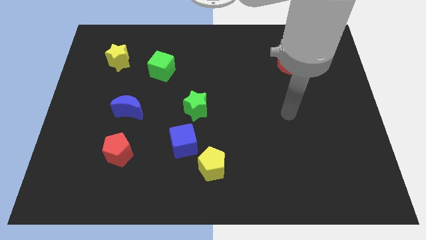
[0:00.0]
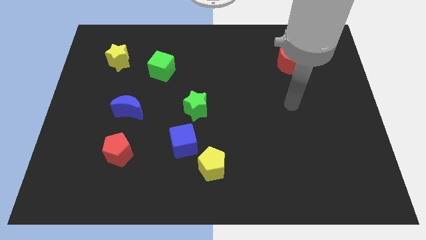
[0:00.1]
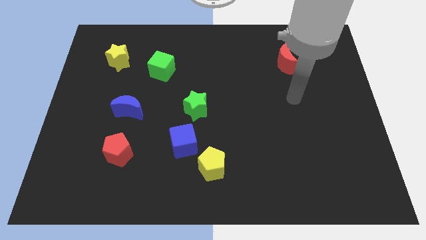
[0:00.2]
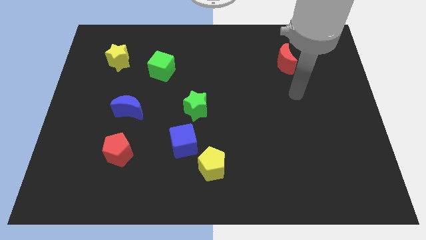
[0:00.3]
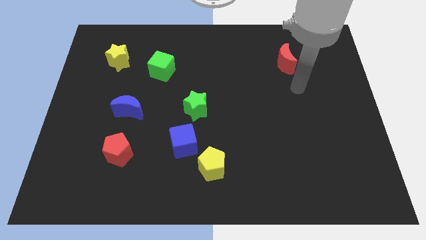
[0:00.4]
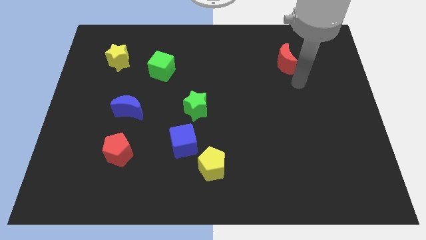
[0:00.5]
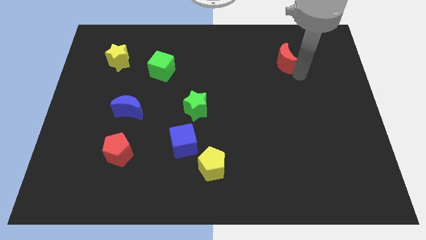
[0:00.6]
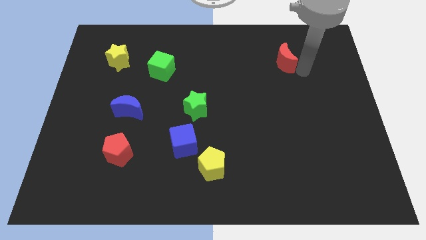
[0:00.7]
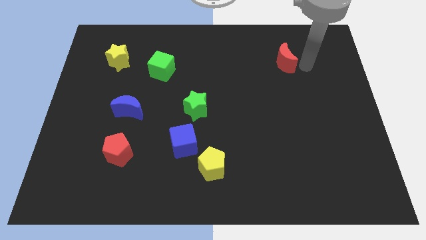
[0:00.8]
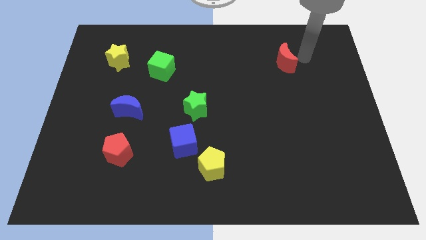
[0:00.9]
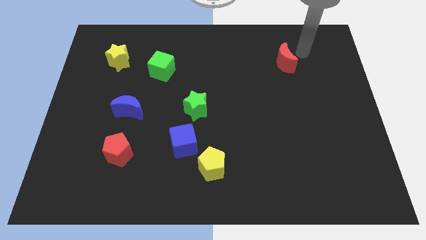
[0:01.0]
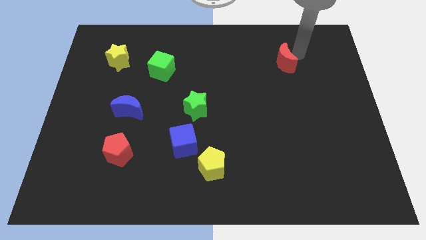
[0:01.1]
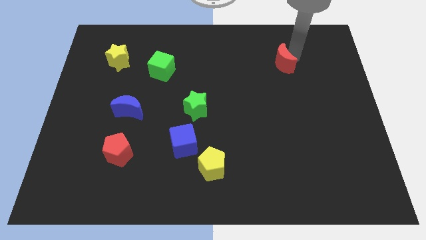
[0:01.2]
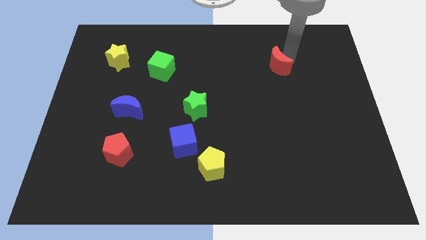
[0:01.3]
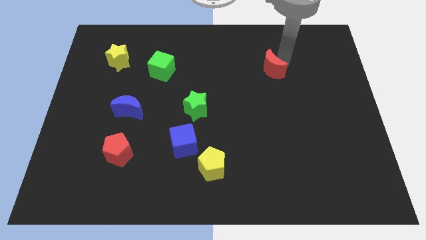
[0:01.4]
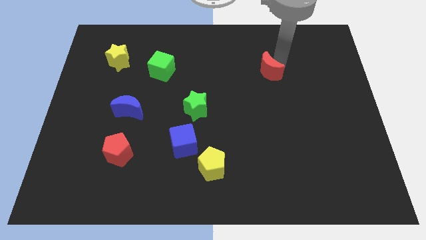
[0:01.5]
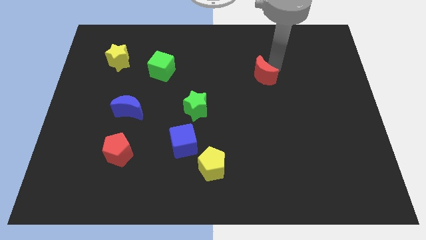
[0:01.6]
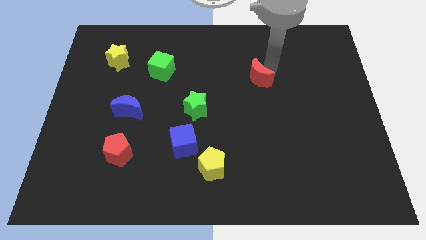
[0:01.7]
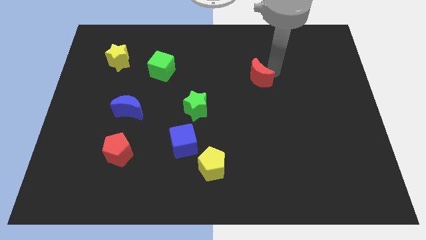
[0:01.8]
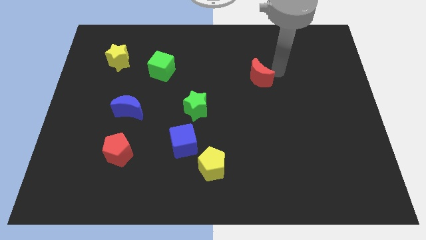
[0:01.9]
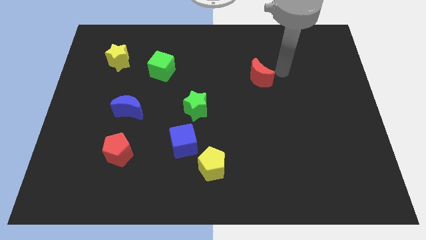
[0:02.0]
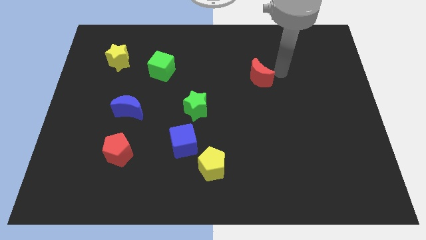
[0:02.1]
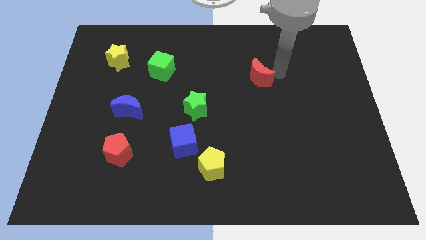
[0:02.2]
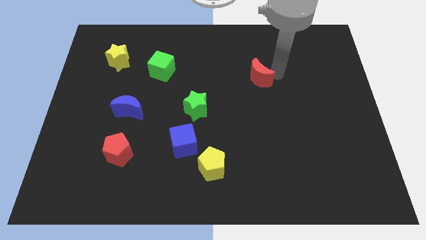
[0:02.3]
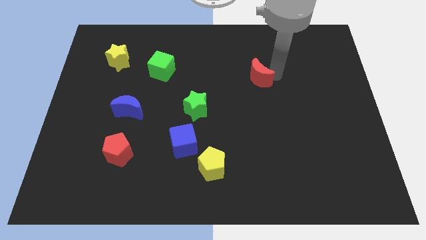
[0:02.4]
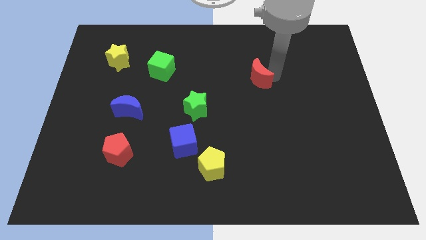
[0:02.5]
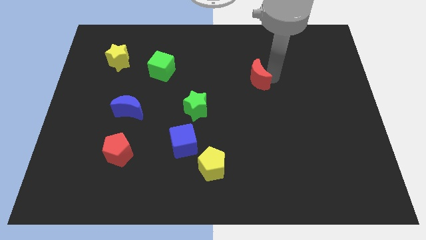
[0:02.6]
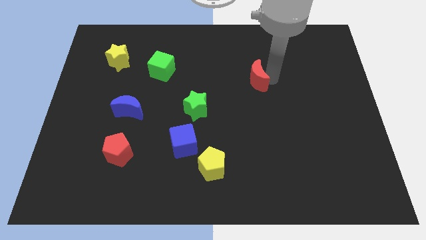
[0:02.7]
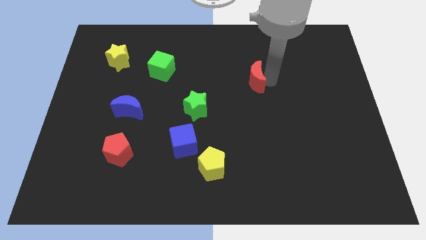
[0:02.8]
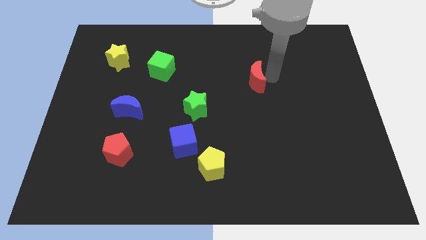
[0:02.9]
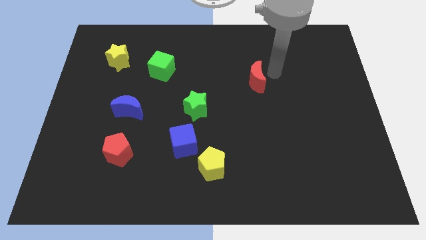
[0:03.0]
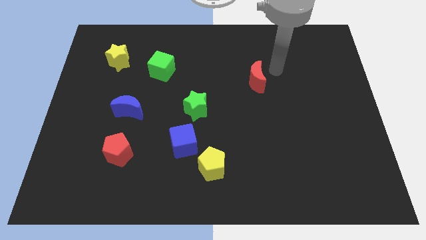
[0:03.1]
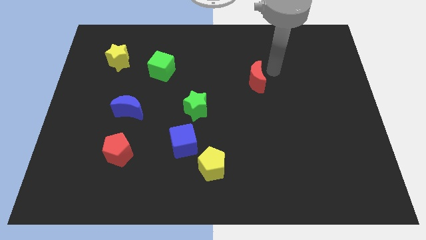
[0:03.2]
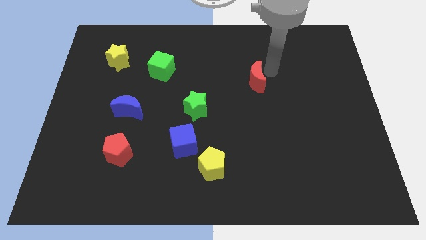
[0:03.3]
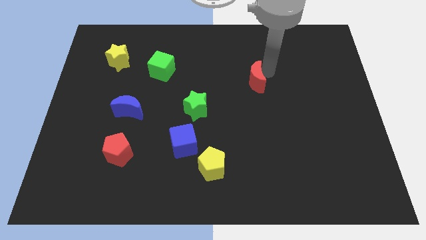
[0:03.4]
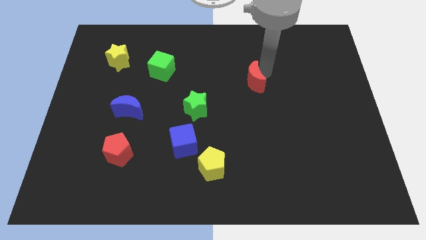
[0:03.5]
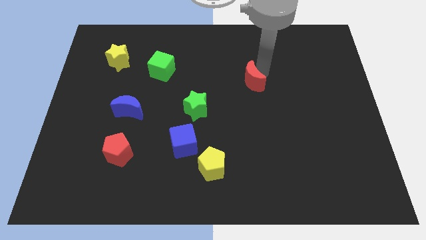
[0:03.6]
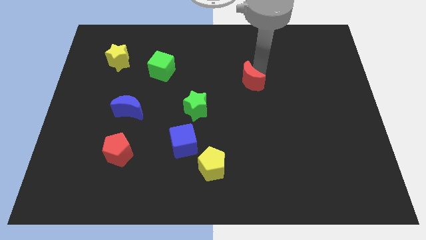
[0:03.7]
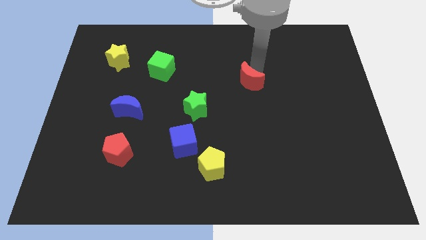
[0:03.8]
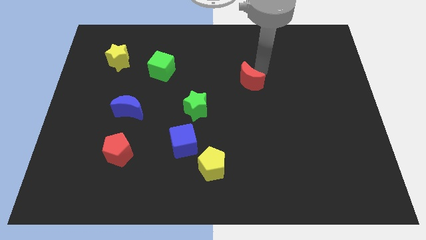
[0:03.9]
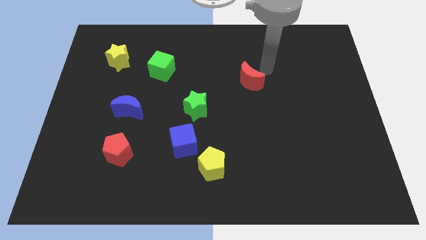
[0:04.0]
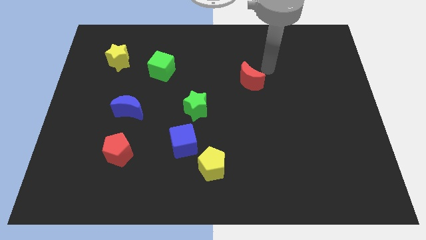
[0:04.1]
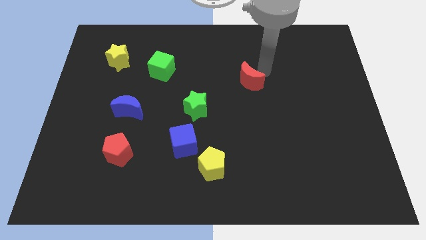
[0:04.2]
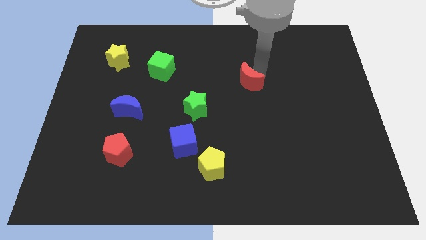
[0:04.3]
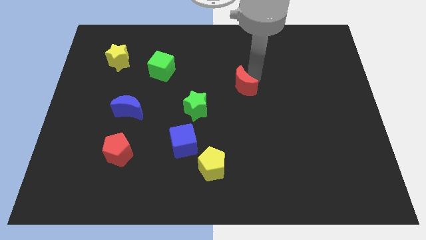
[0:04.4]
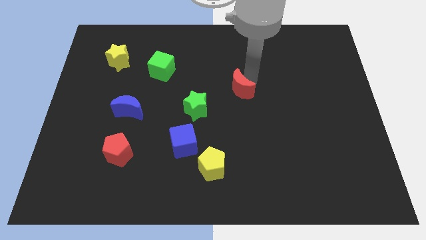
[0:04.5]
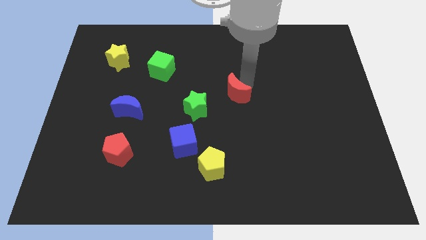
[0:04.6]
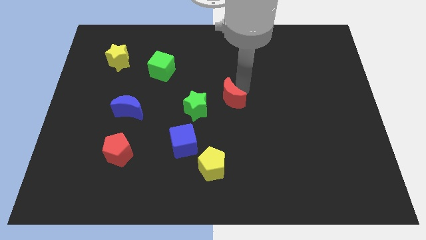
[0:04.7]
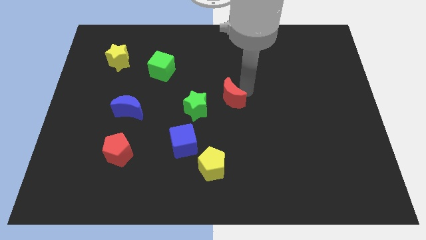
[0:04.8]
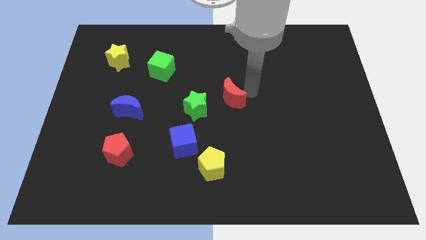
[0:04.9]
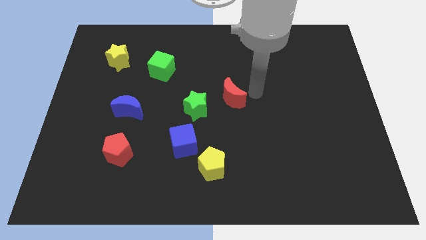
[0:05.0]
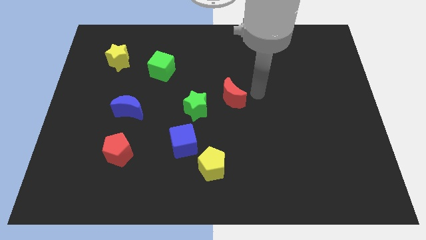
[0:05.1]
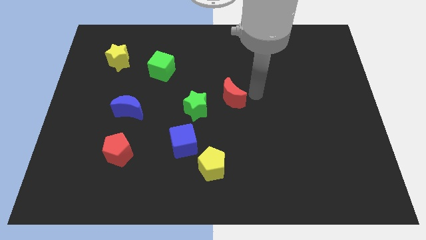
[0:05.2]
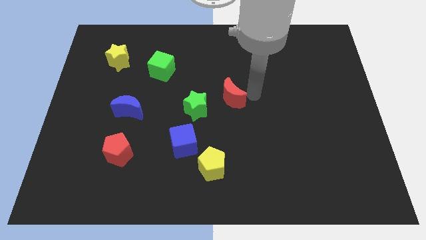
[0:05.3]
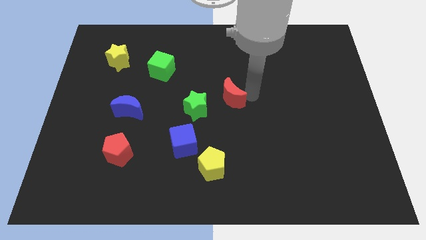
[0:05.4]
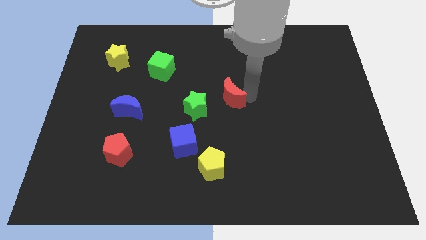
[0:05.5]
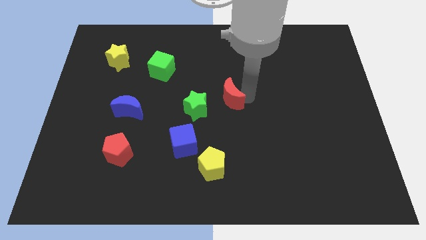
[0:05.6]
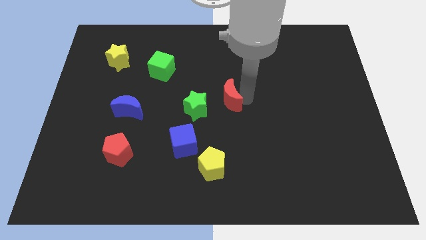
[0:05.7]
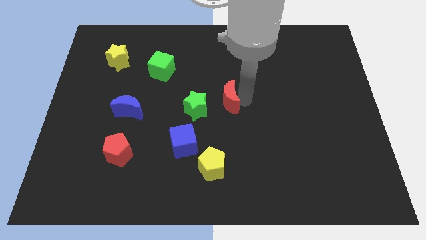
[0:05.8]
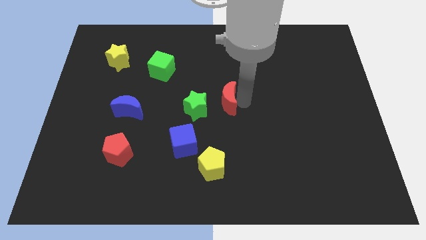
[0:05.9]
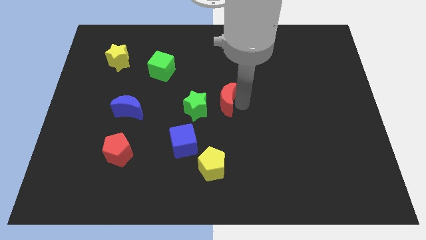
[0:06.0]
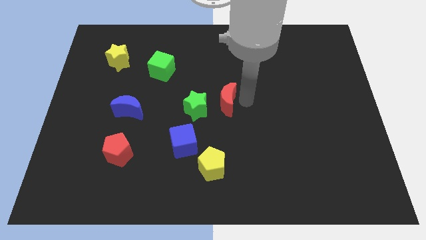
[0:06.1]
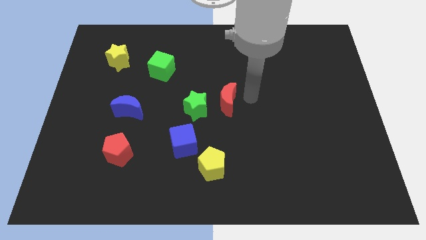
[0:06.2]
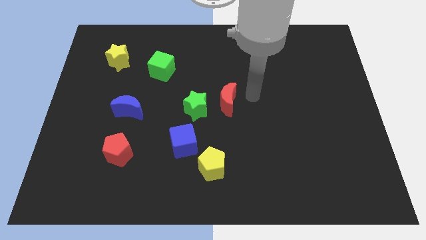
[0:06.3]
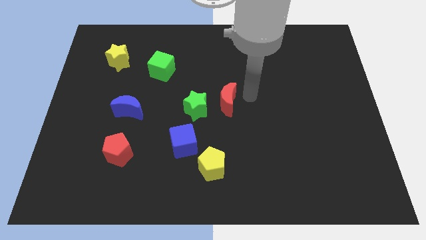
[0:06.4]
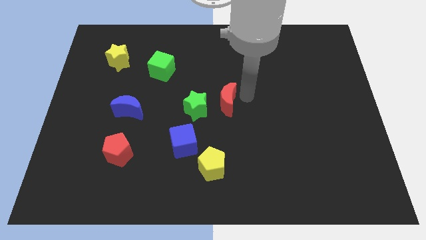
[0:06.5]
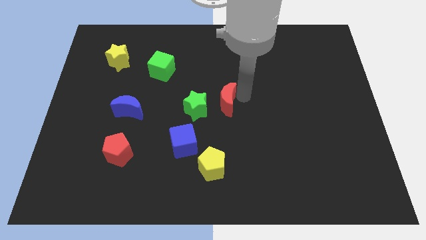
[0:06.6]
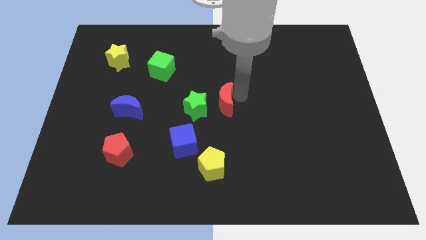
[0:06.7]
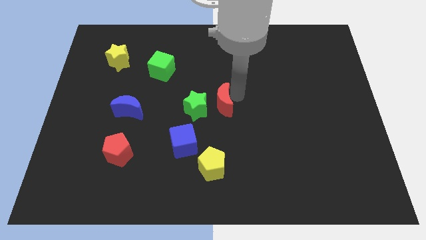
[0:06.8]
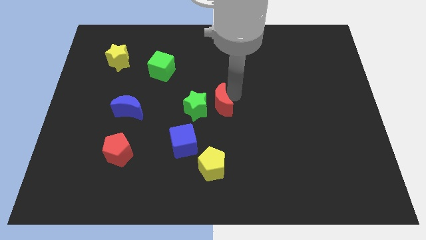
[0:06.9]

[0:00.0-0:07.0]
put the red moon towards the green star

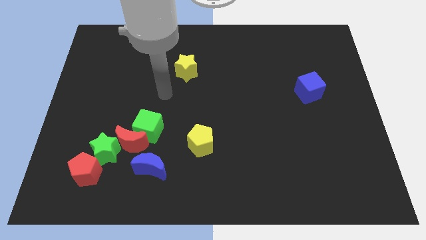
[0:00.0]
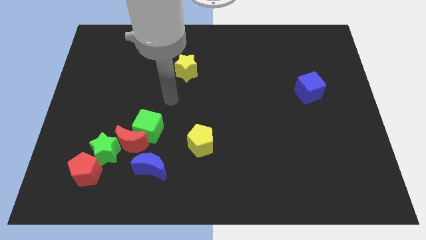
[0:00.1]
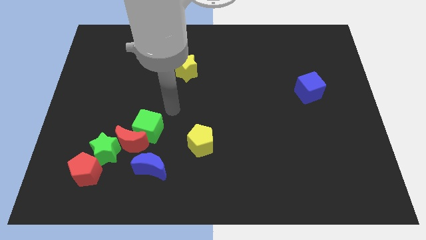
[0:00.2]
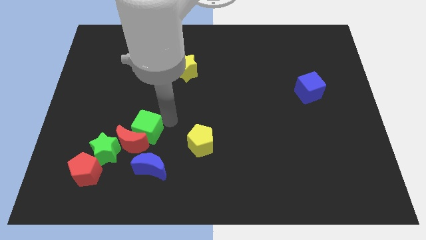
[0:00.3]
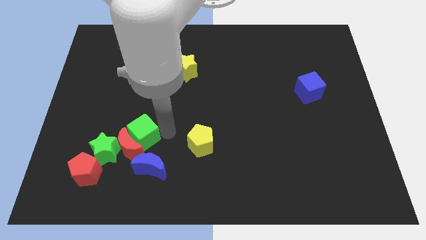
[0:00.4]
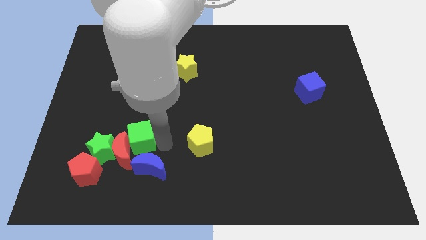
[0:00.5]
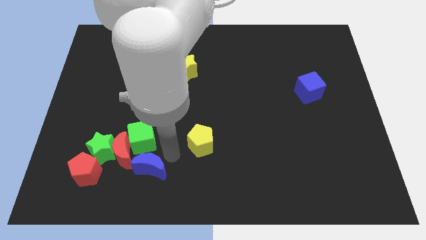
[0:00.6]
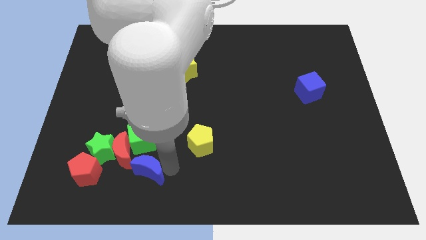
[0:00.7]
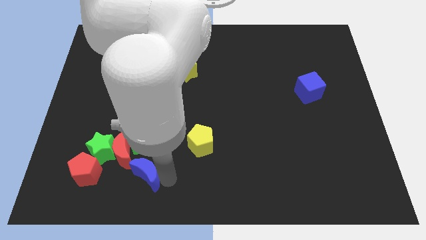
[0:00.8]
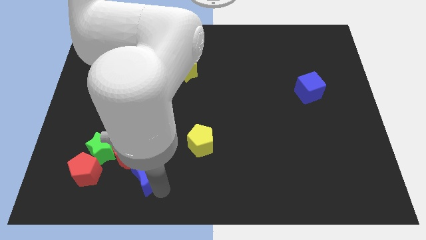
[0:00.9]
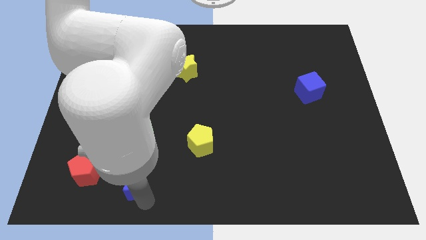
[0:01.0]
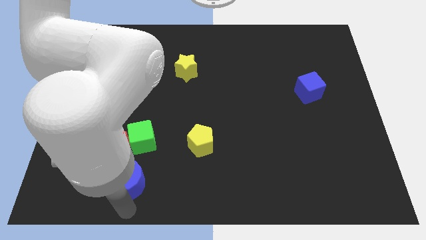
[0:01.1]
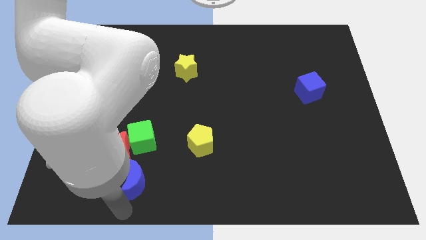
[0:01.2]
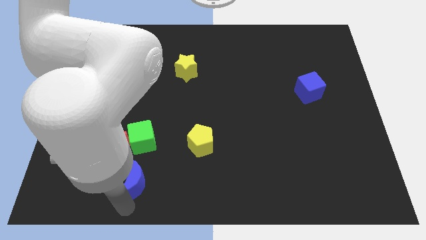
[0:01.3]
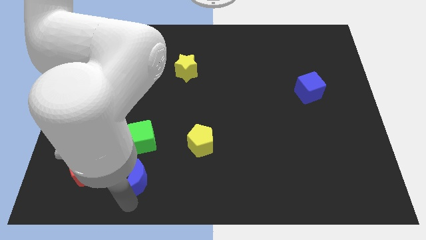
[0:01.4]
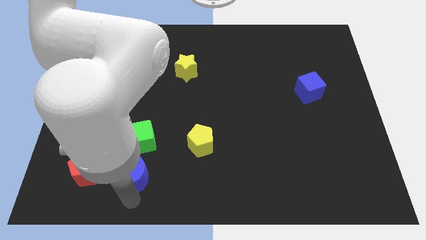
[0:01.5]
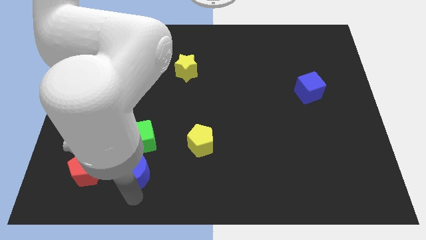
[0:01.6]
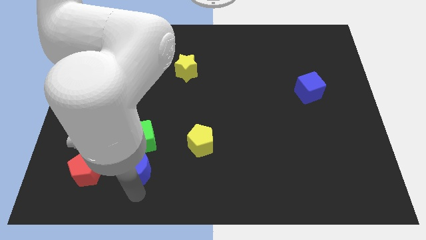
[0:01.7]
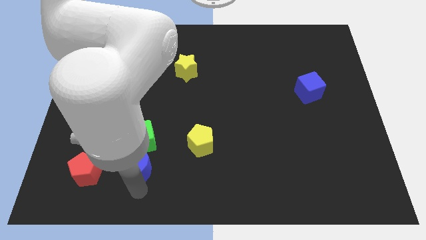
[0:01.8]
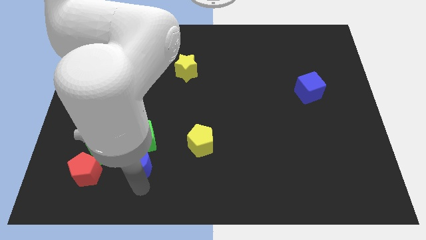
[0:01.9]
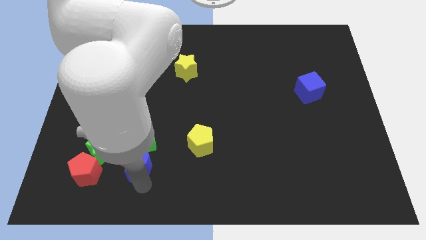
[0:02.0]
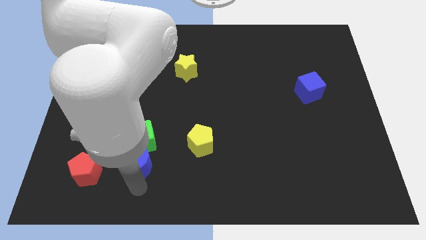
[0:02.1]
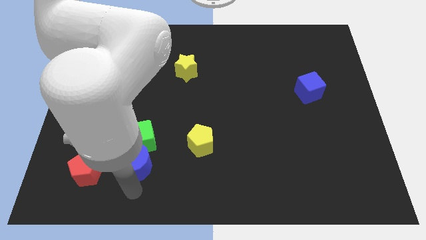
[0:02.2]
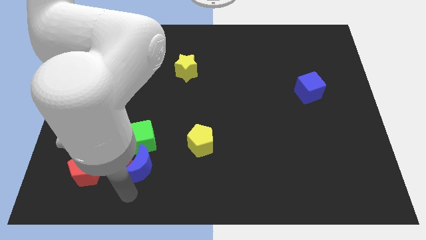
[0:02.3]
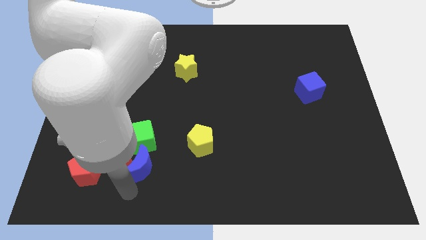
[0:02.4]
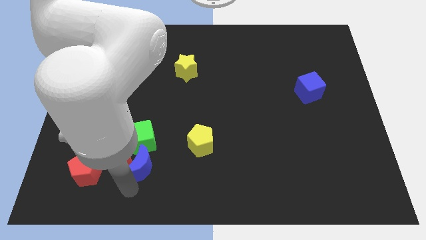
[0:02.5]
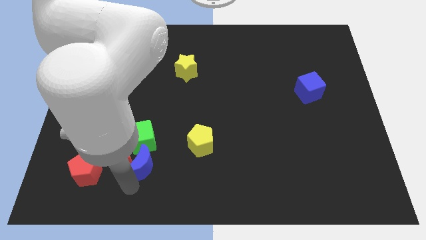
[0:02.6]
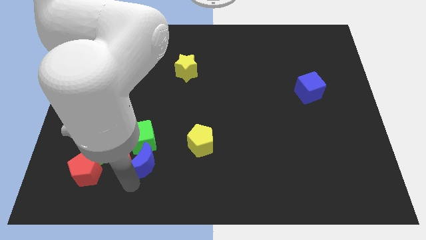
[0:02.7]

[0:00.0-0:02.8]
slide the blue moon to the green cube
